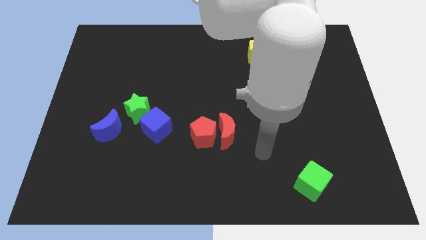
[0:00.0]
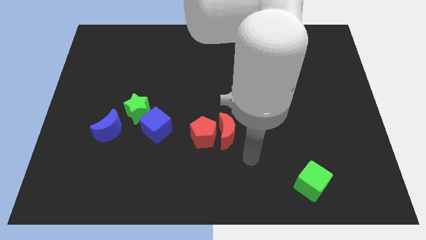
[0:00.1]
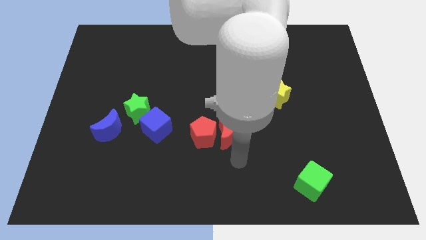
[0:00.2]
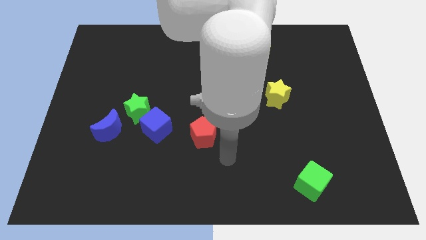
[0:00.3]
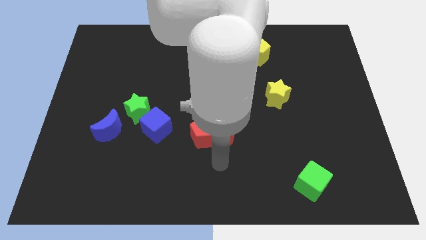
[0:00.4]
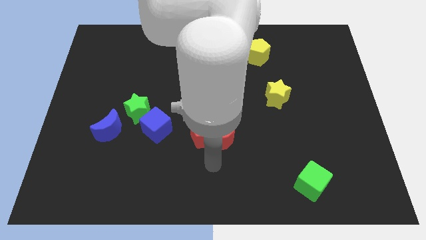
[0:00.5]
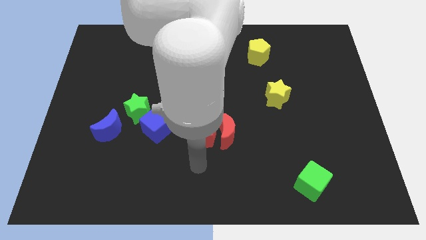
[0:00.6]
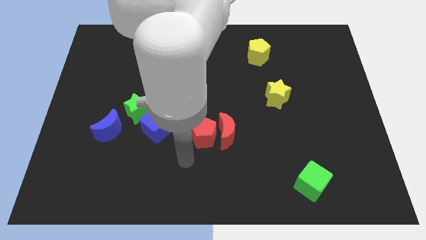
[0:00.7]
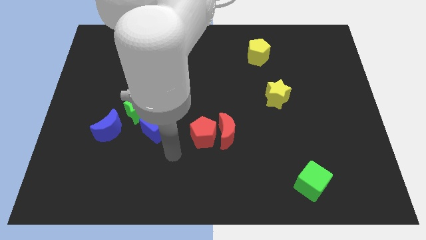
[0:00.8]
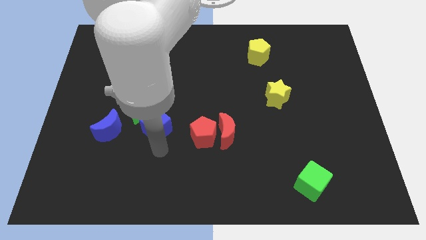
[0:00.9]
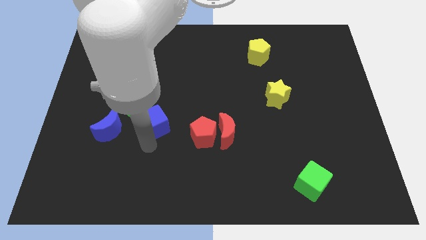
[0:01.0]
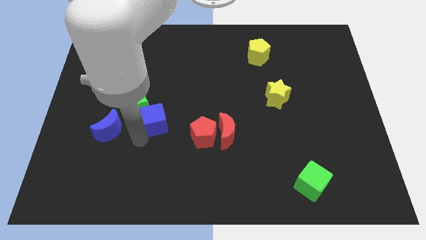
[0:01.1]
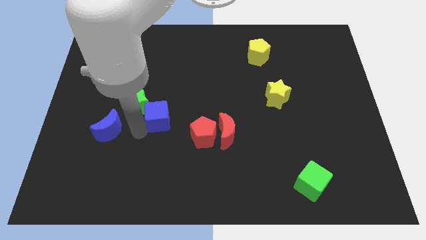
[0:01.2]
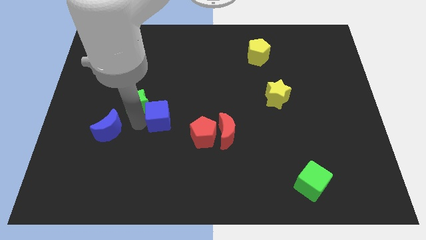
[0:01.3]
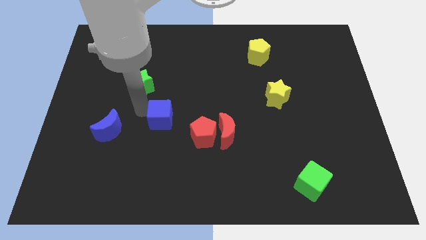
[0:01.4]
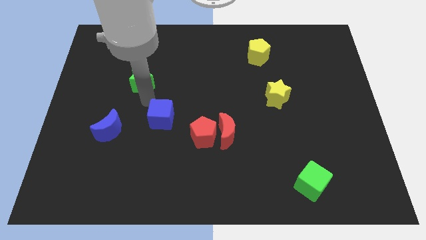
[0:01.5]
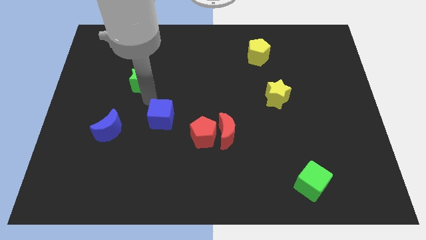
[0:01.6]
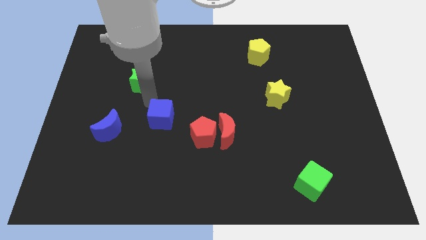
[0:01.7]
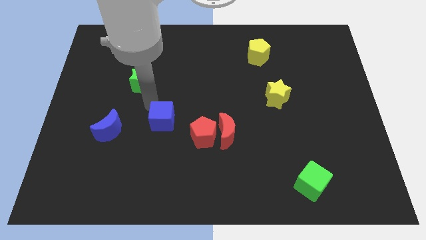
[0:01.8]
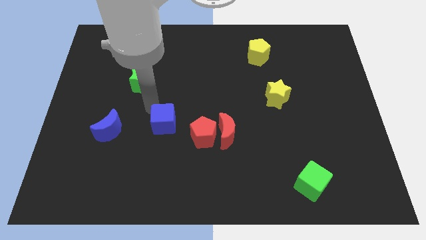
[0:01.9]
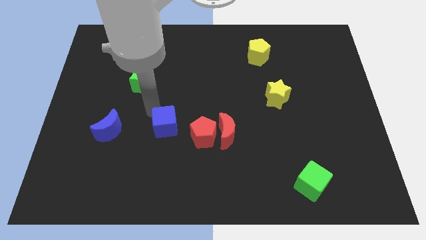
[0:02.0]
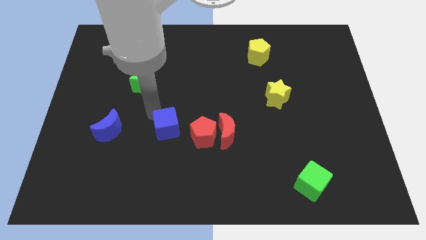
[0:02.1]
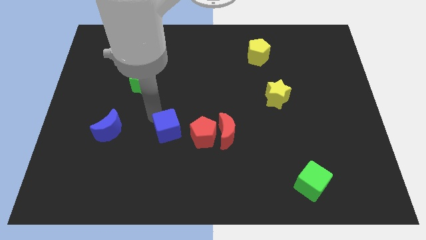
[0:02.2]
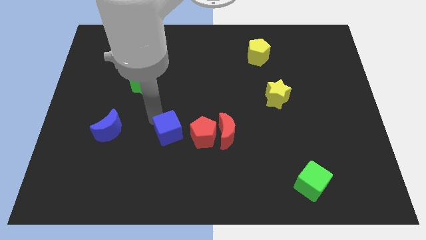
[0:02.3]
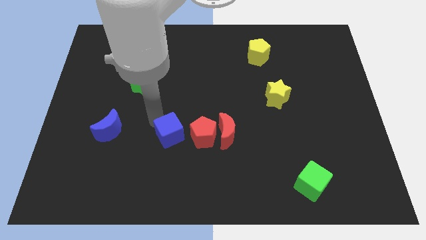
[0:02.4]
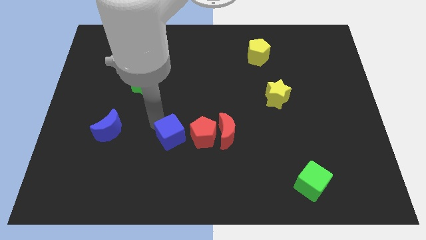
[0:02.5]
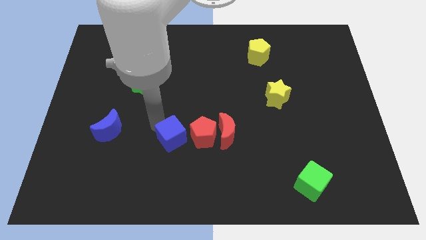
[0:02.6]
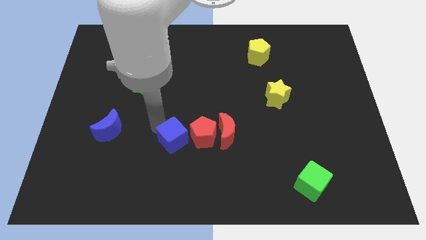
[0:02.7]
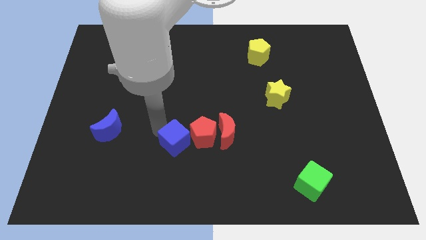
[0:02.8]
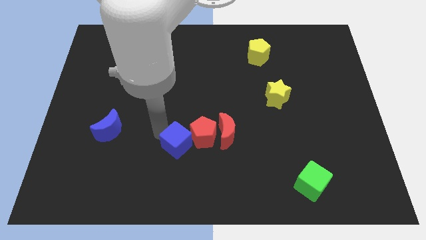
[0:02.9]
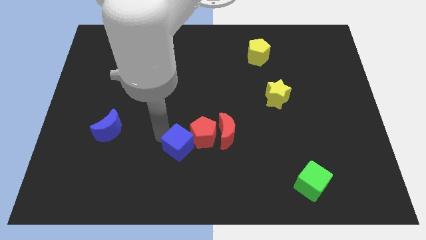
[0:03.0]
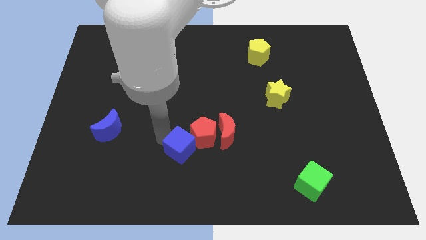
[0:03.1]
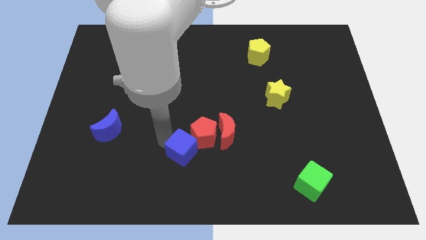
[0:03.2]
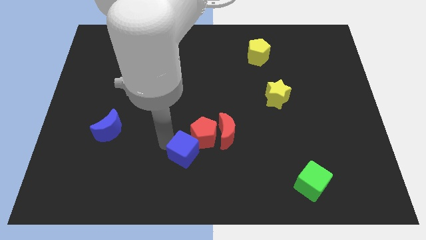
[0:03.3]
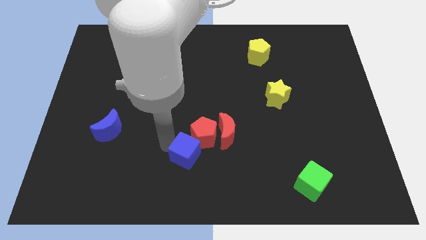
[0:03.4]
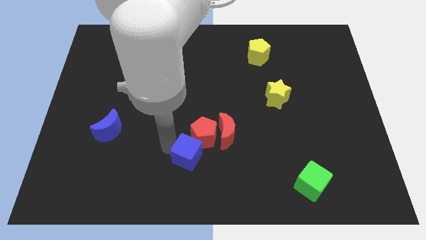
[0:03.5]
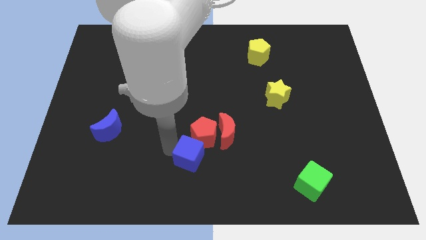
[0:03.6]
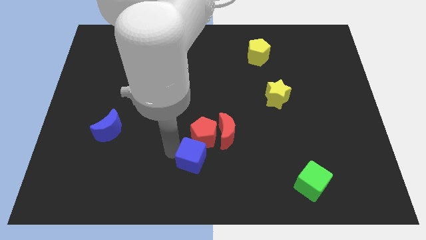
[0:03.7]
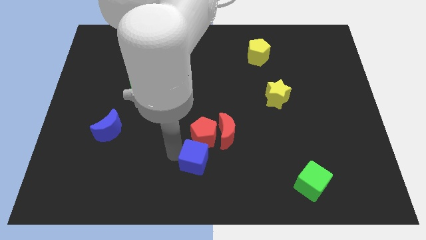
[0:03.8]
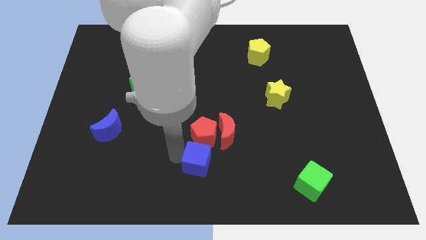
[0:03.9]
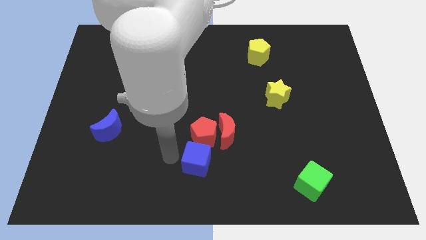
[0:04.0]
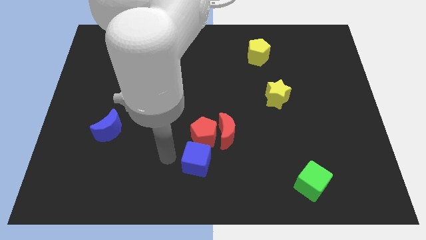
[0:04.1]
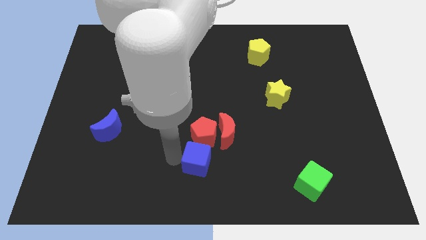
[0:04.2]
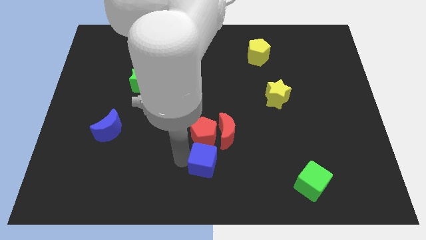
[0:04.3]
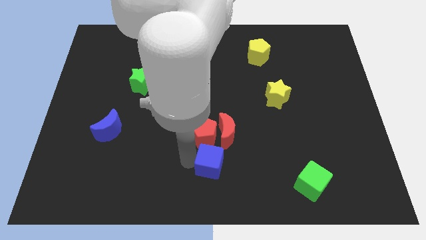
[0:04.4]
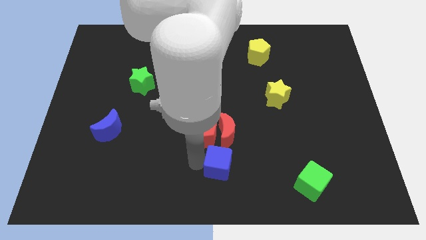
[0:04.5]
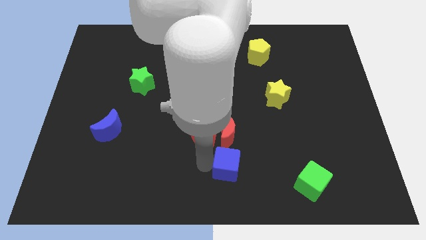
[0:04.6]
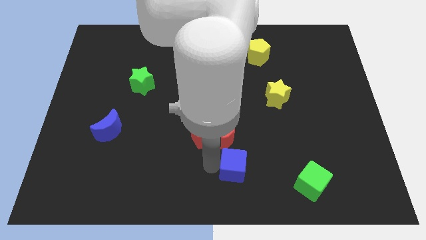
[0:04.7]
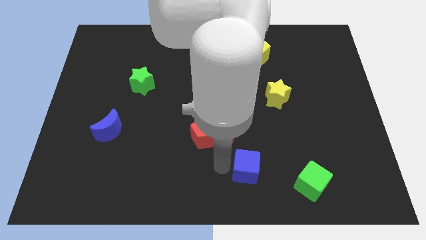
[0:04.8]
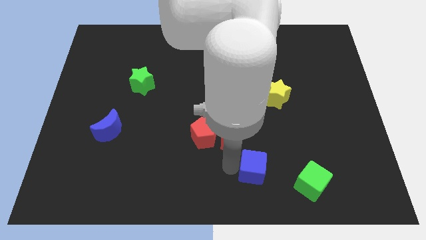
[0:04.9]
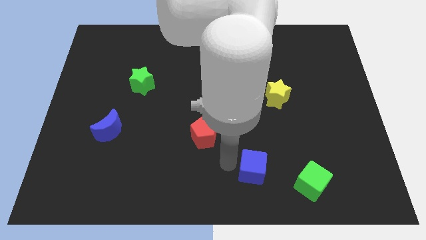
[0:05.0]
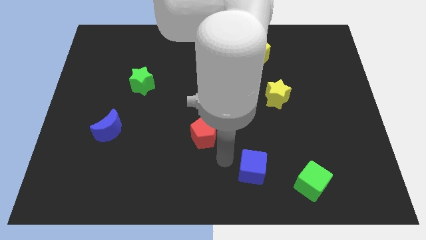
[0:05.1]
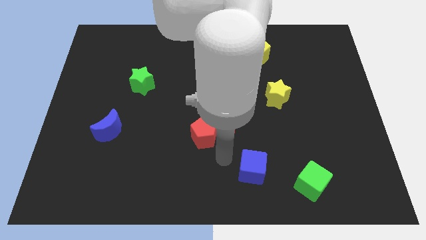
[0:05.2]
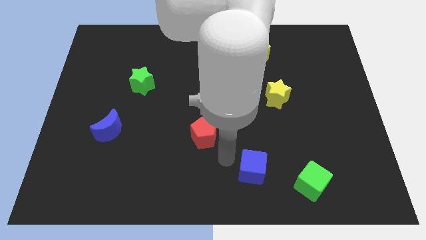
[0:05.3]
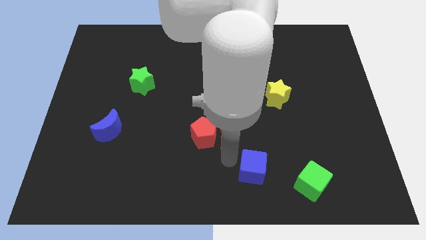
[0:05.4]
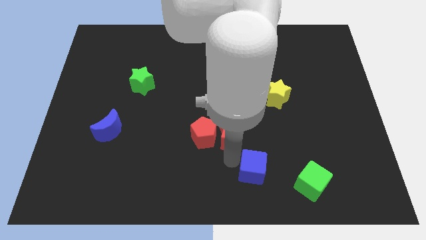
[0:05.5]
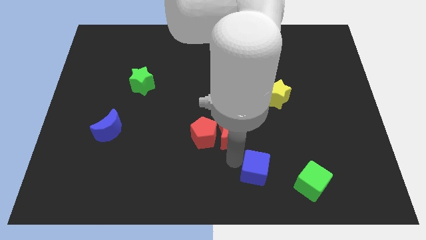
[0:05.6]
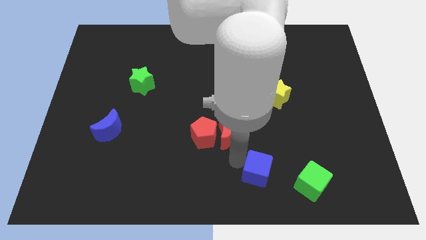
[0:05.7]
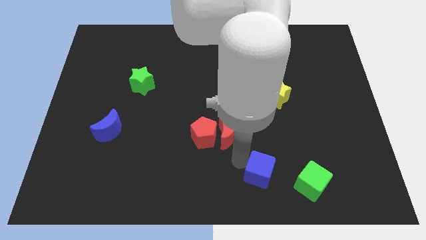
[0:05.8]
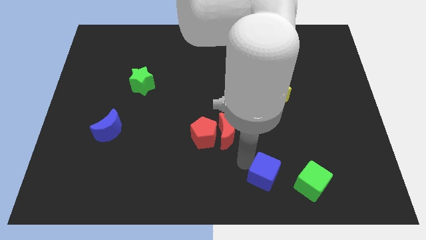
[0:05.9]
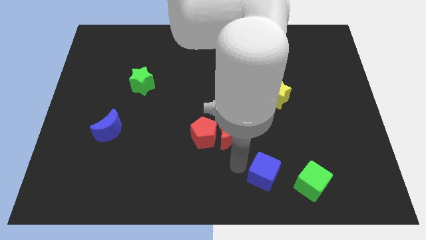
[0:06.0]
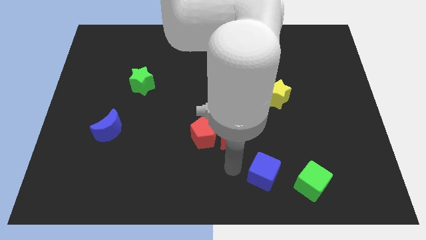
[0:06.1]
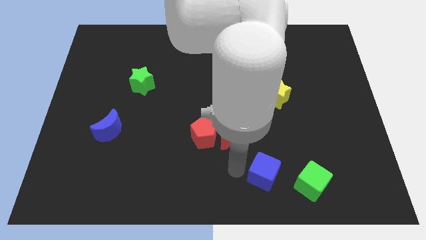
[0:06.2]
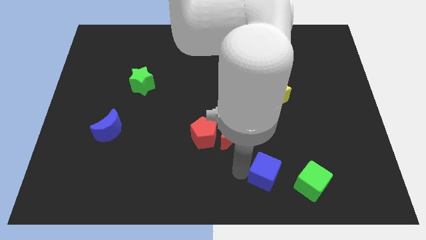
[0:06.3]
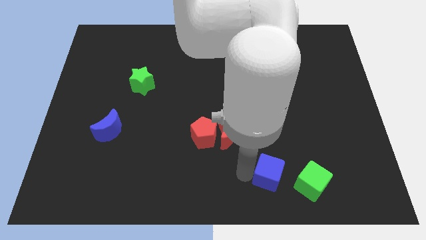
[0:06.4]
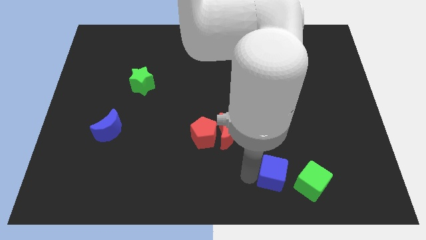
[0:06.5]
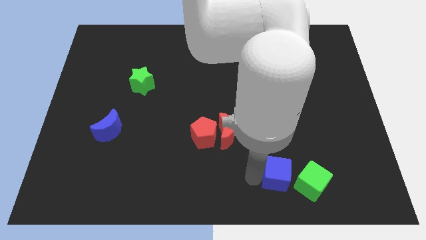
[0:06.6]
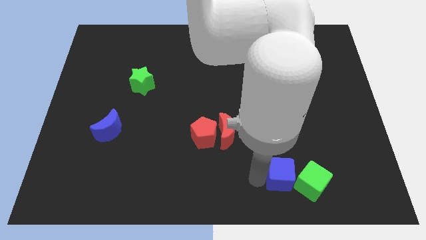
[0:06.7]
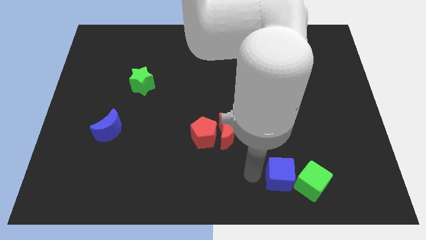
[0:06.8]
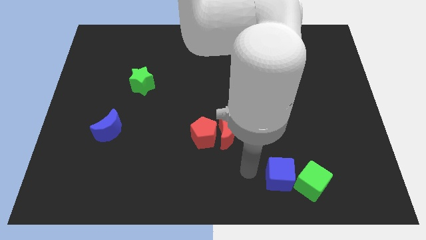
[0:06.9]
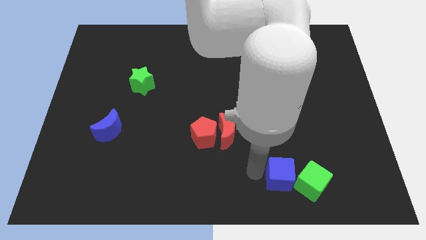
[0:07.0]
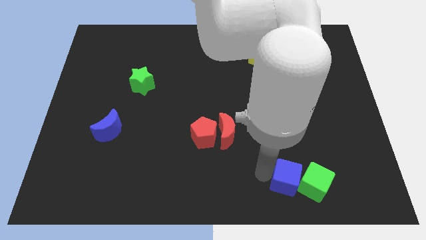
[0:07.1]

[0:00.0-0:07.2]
move the blue cube towards the green cube
